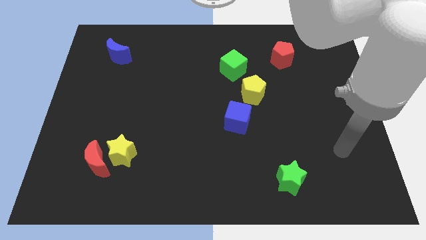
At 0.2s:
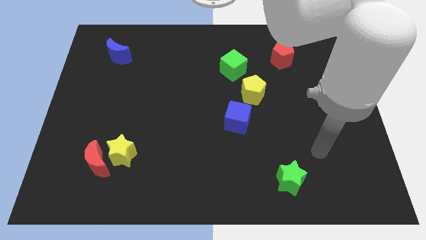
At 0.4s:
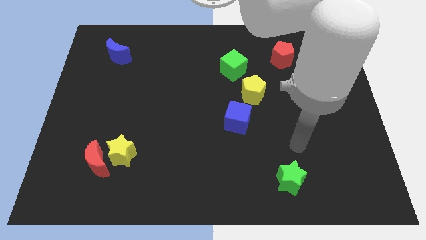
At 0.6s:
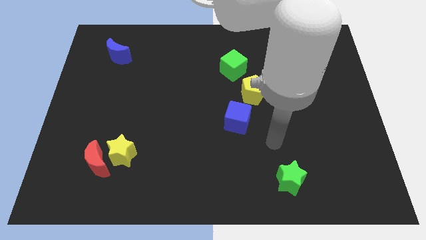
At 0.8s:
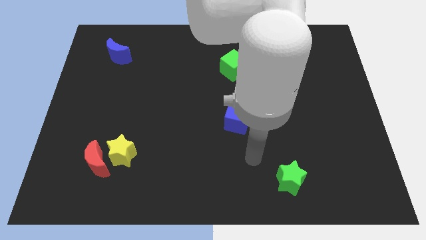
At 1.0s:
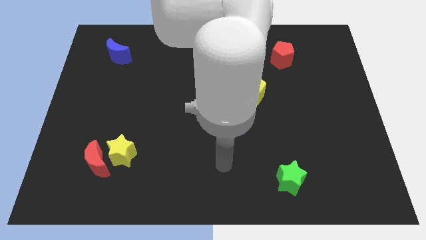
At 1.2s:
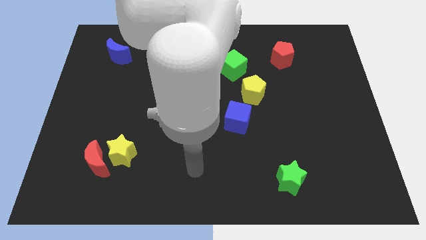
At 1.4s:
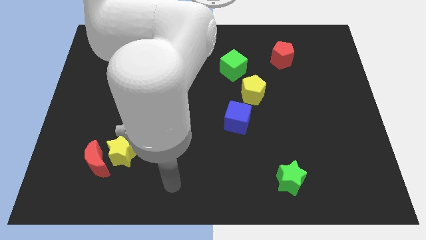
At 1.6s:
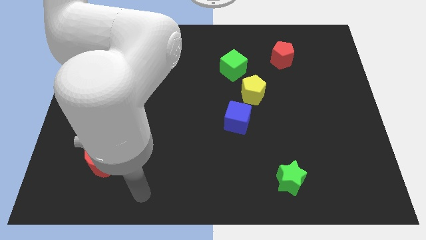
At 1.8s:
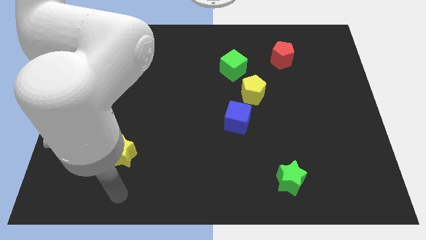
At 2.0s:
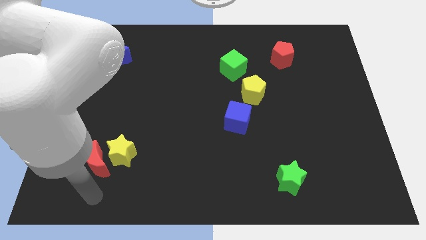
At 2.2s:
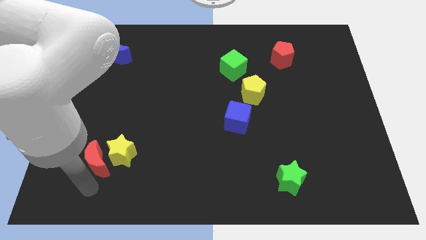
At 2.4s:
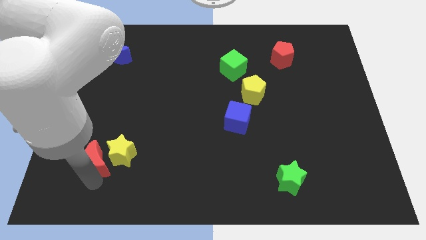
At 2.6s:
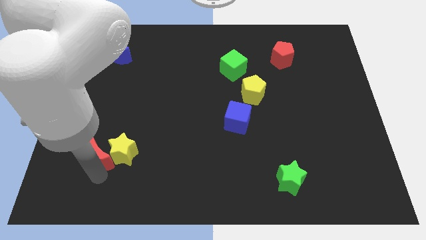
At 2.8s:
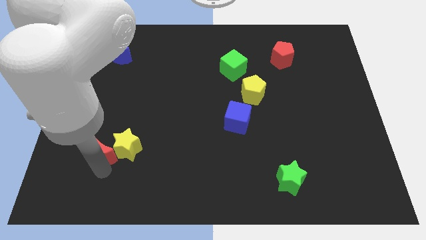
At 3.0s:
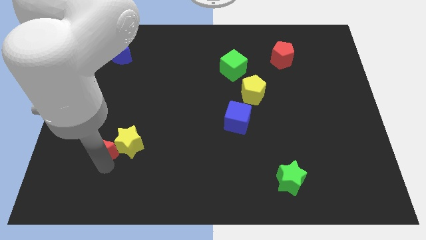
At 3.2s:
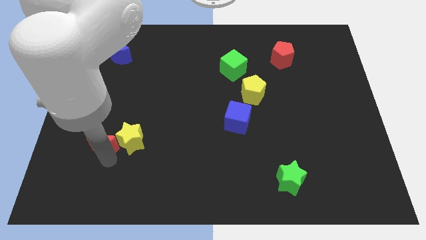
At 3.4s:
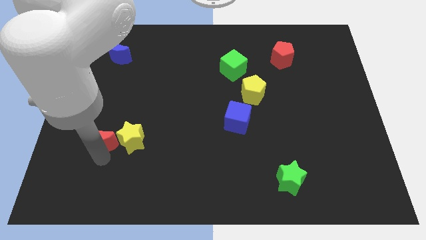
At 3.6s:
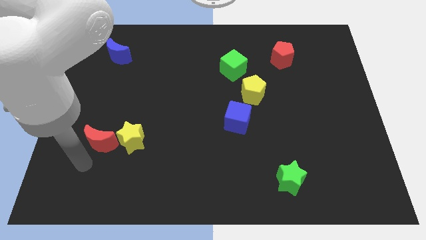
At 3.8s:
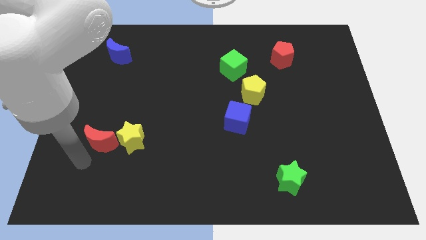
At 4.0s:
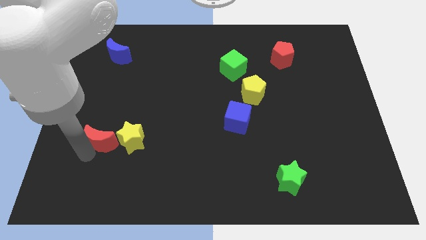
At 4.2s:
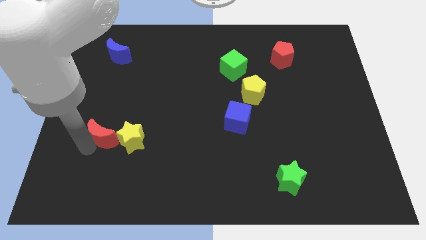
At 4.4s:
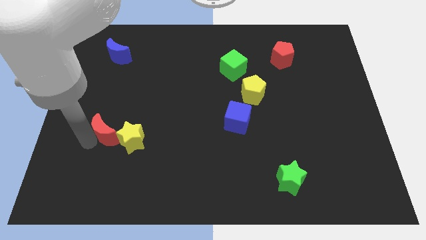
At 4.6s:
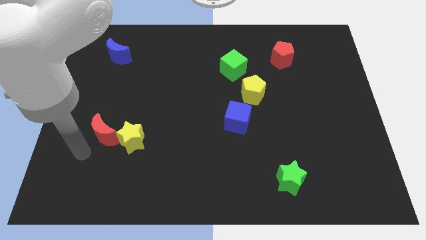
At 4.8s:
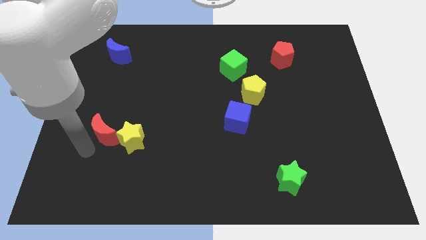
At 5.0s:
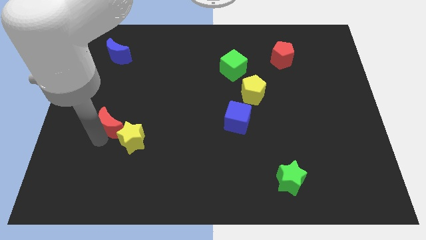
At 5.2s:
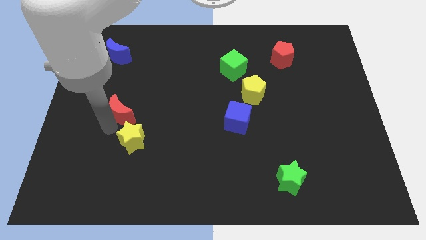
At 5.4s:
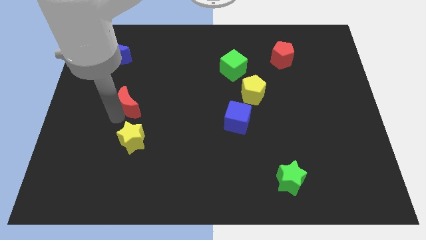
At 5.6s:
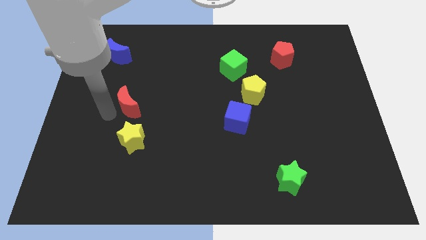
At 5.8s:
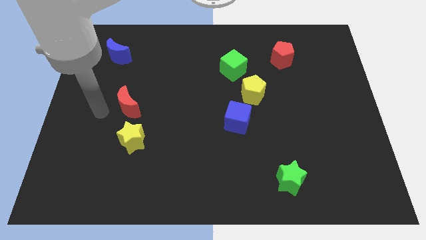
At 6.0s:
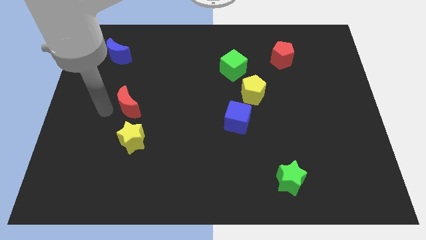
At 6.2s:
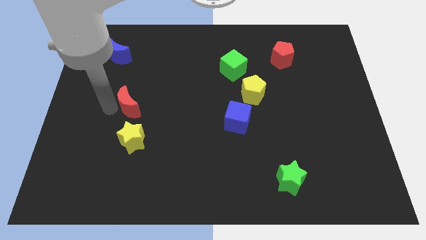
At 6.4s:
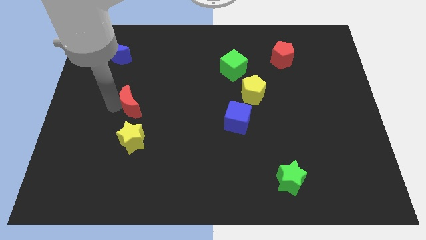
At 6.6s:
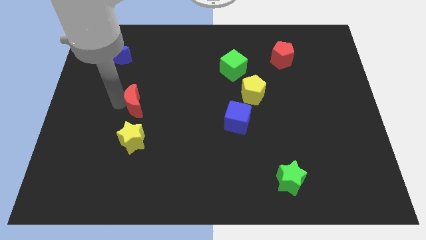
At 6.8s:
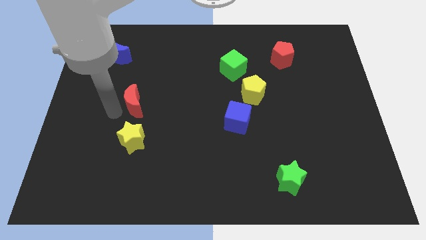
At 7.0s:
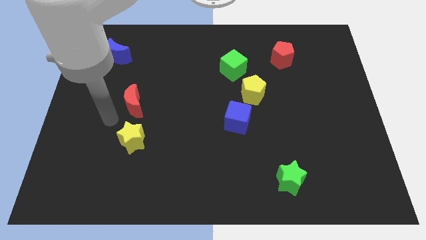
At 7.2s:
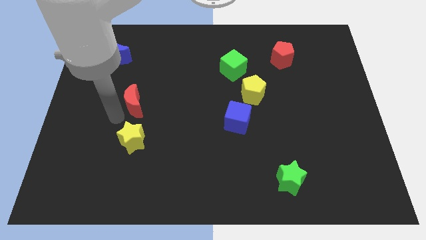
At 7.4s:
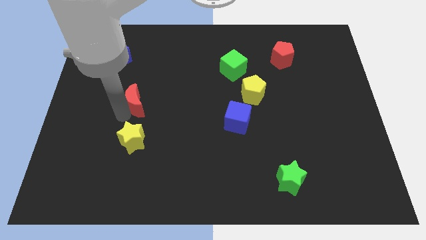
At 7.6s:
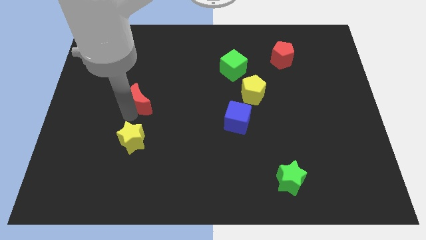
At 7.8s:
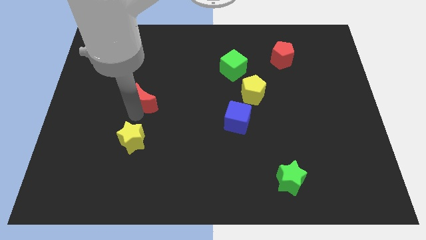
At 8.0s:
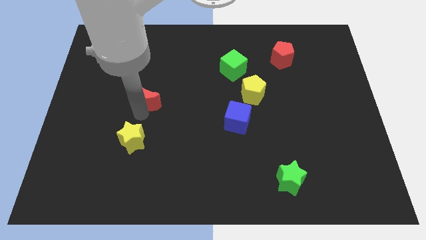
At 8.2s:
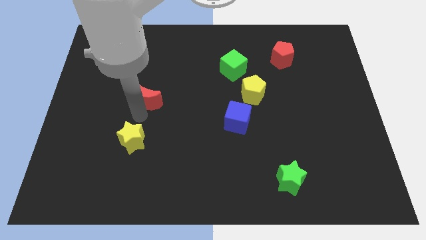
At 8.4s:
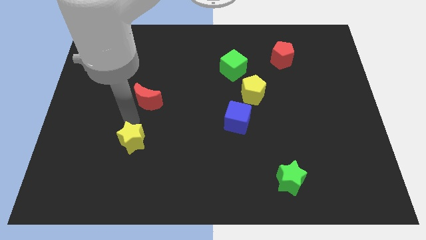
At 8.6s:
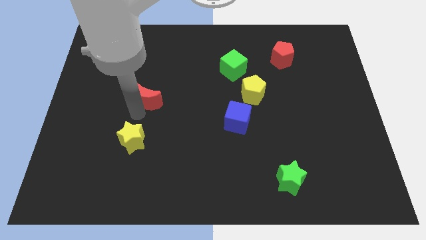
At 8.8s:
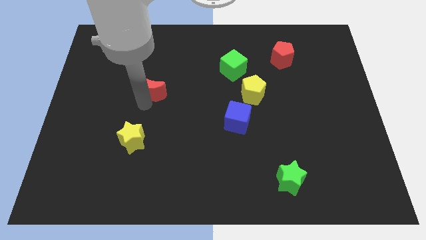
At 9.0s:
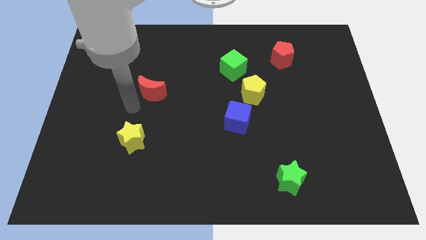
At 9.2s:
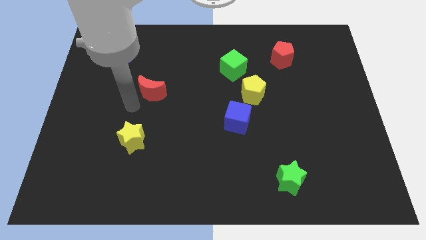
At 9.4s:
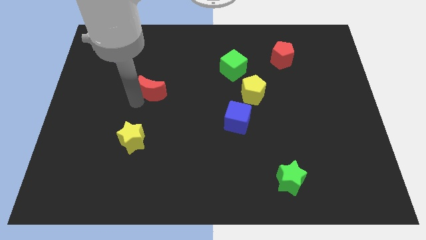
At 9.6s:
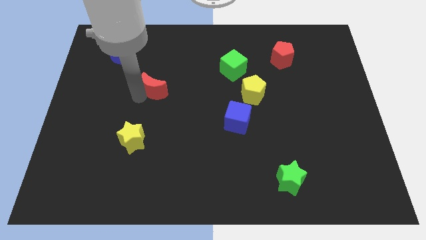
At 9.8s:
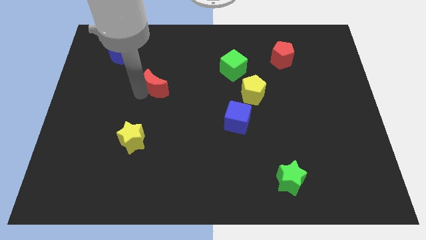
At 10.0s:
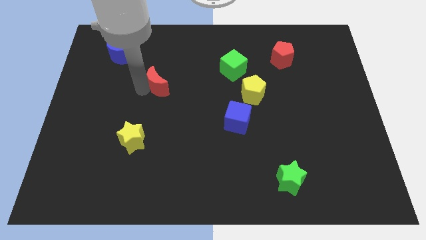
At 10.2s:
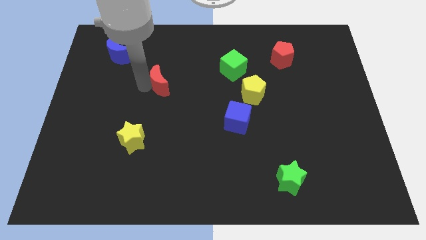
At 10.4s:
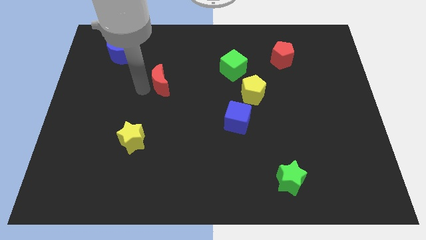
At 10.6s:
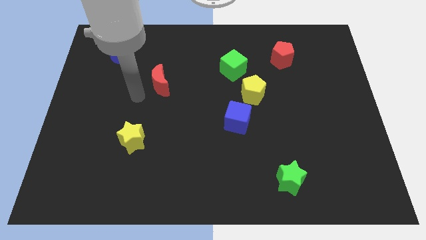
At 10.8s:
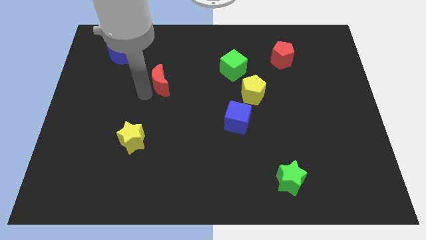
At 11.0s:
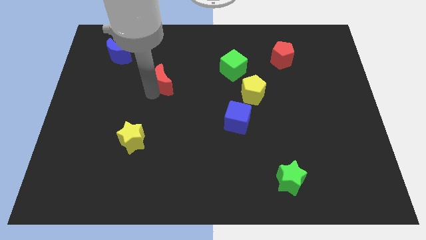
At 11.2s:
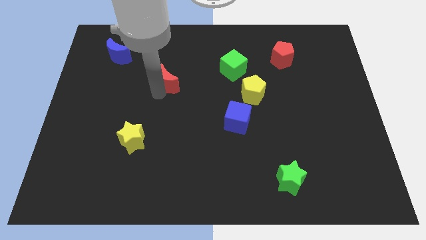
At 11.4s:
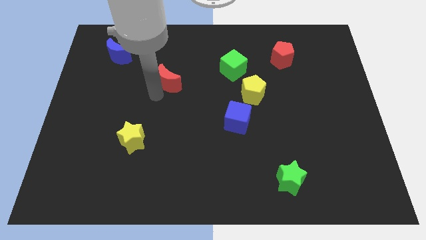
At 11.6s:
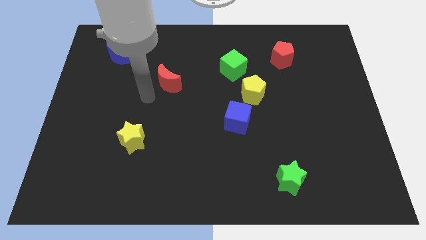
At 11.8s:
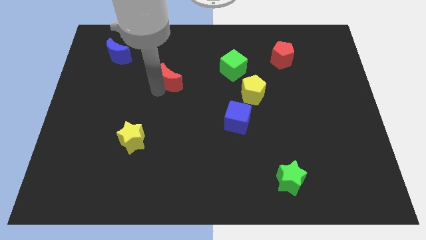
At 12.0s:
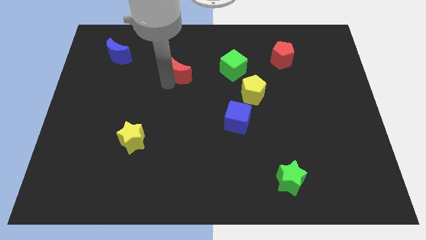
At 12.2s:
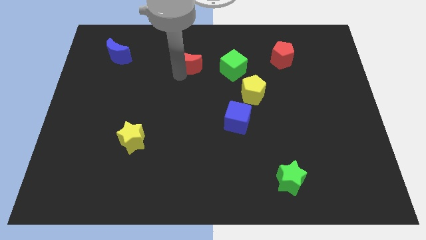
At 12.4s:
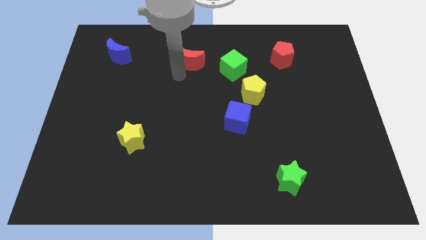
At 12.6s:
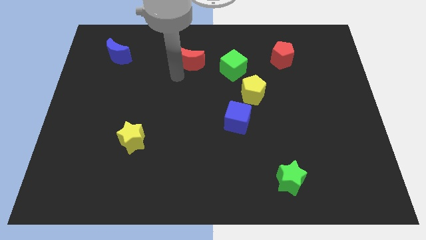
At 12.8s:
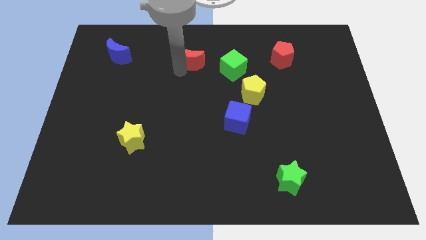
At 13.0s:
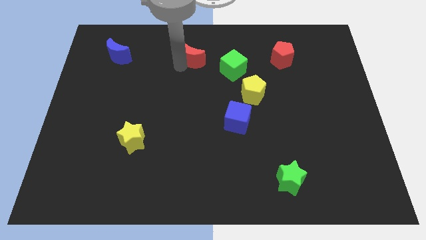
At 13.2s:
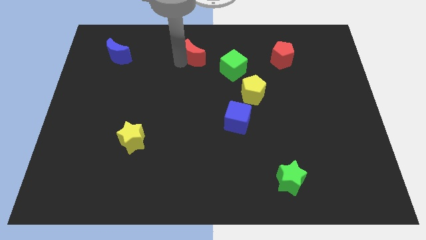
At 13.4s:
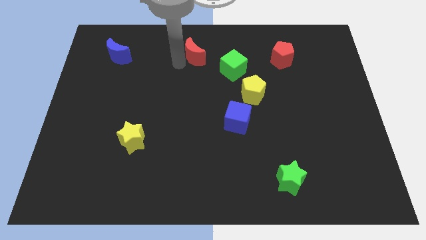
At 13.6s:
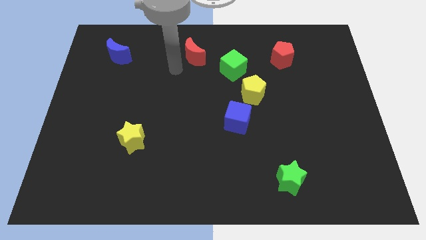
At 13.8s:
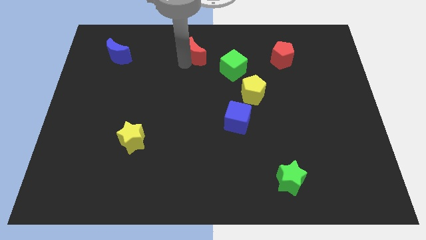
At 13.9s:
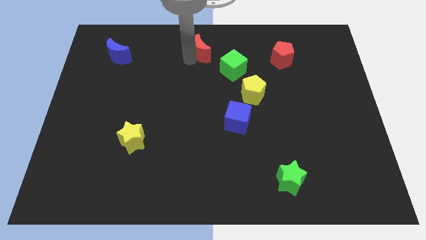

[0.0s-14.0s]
push the red moon to the top
